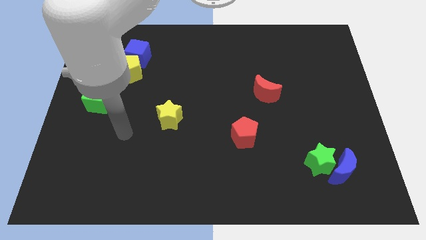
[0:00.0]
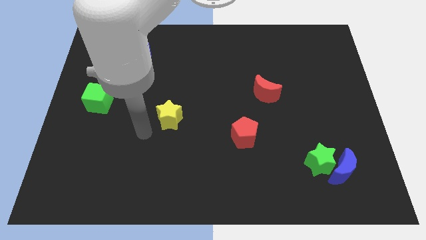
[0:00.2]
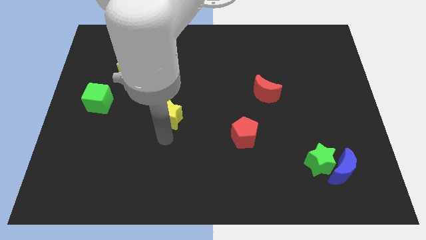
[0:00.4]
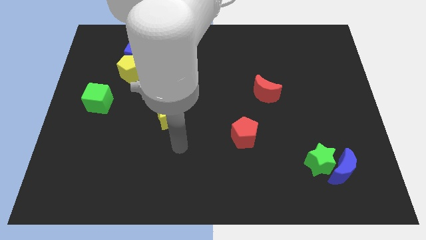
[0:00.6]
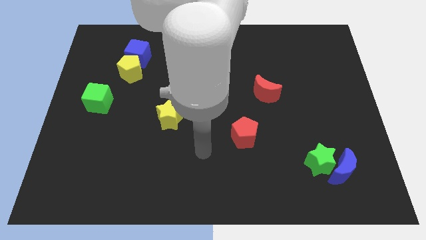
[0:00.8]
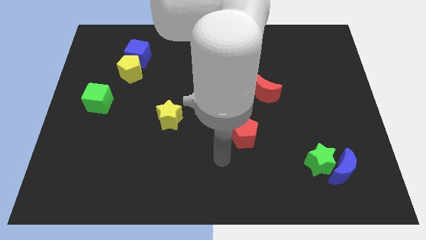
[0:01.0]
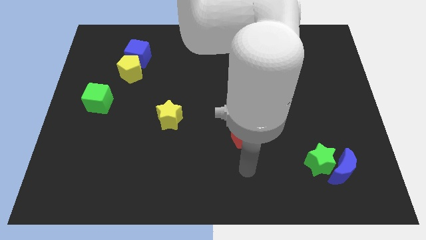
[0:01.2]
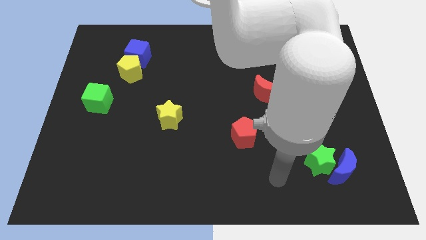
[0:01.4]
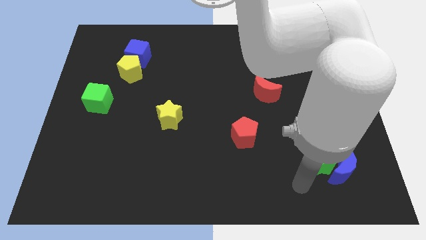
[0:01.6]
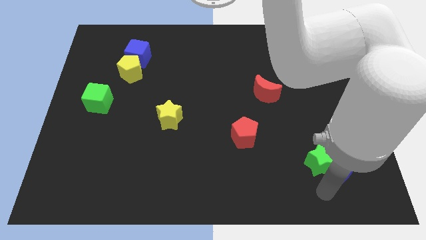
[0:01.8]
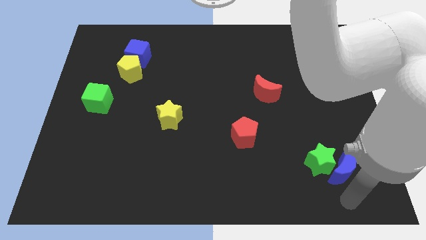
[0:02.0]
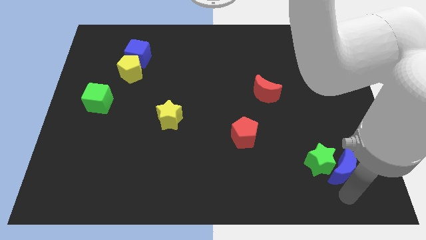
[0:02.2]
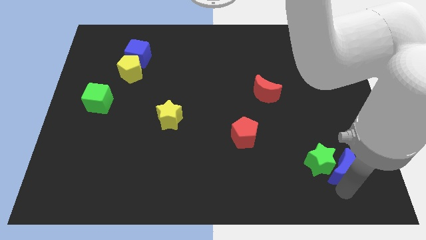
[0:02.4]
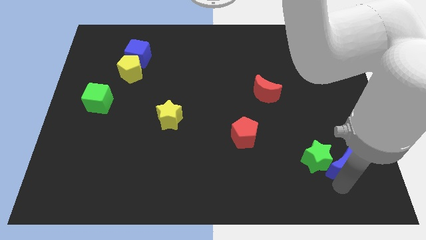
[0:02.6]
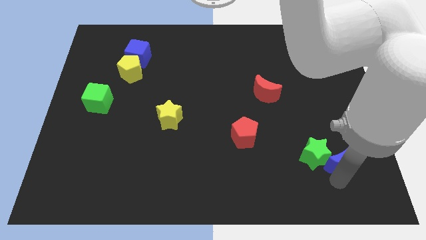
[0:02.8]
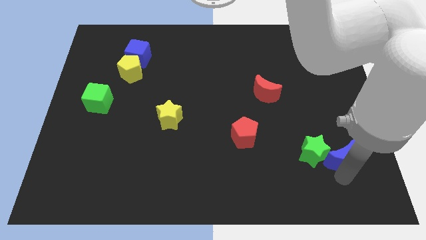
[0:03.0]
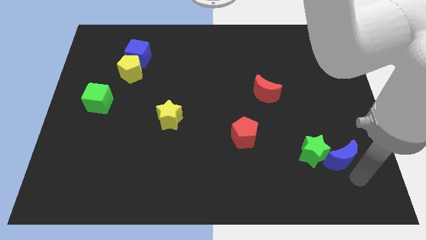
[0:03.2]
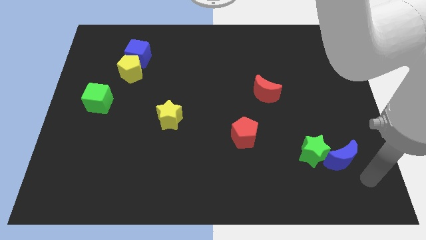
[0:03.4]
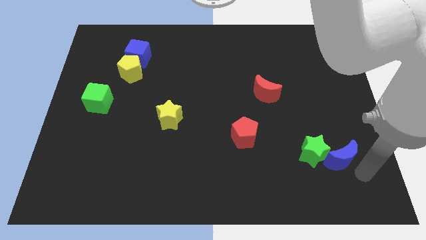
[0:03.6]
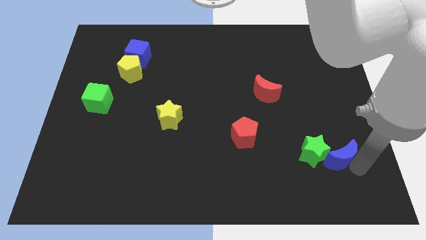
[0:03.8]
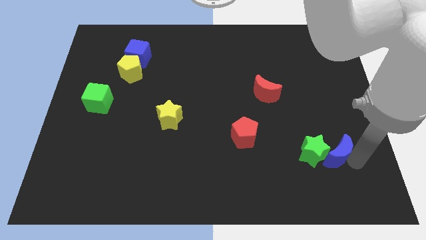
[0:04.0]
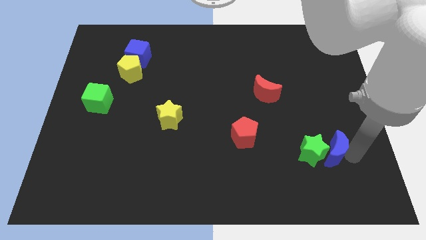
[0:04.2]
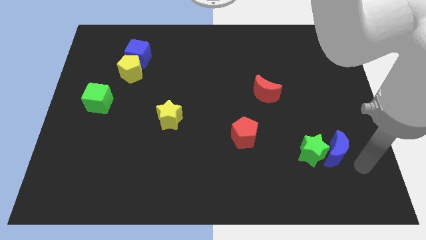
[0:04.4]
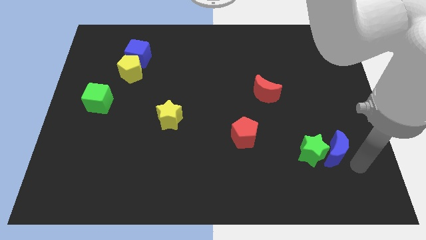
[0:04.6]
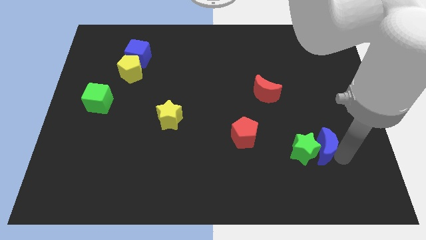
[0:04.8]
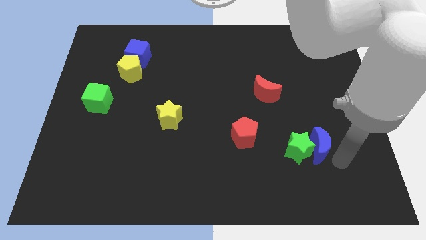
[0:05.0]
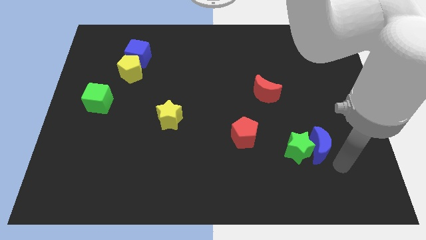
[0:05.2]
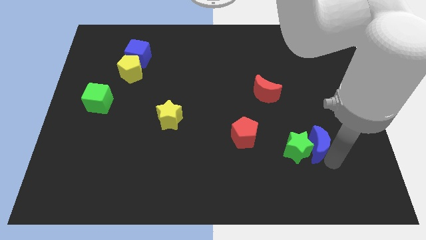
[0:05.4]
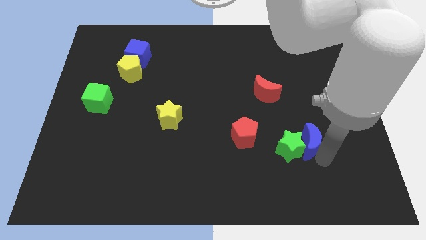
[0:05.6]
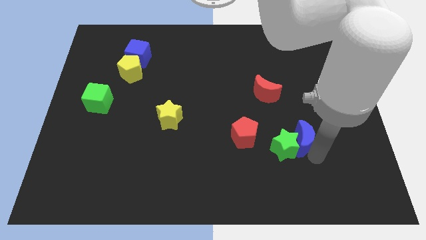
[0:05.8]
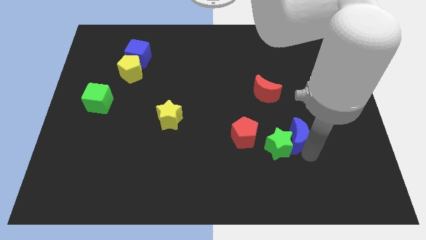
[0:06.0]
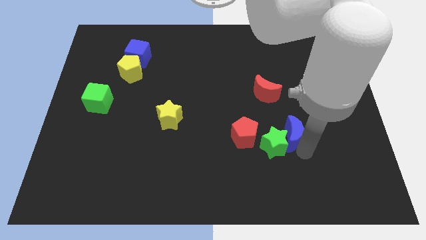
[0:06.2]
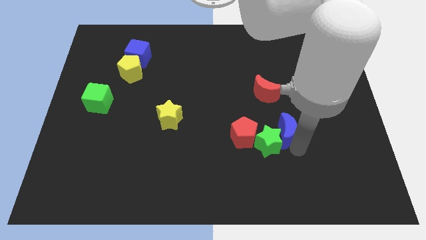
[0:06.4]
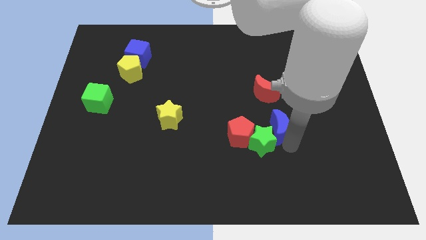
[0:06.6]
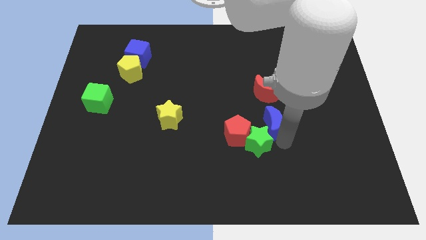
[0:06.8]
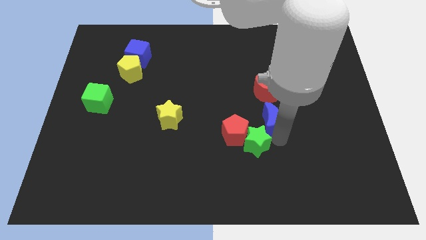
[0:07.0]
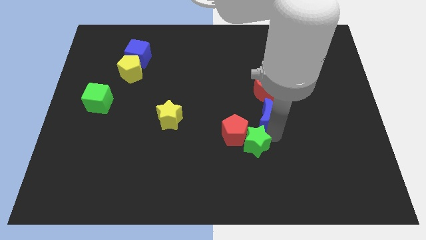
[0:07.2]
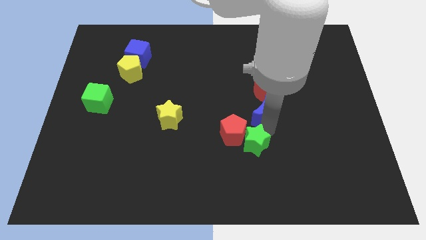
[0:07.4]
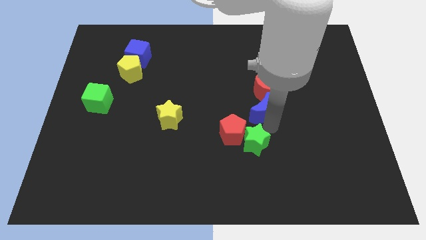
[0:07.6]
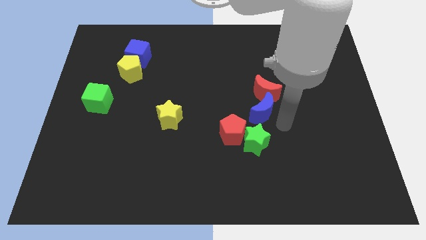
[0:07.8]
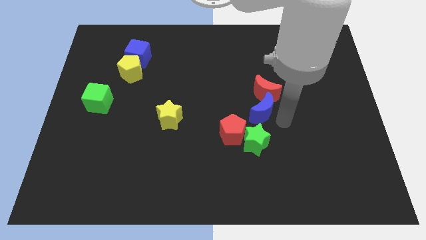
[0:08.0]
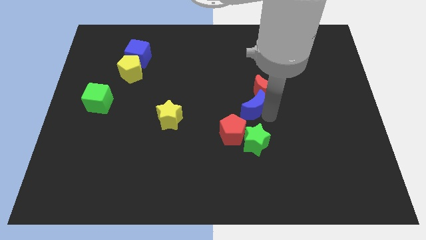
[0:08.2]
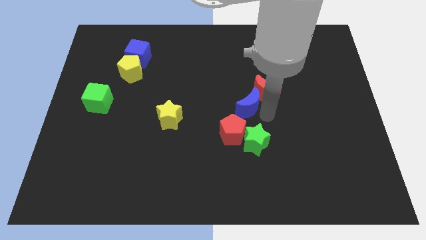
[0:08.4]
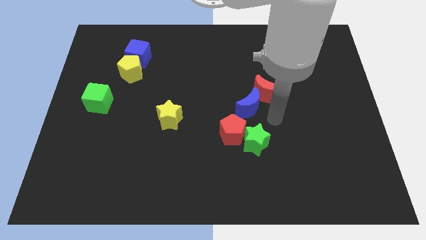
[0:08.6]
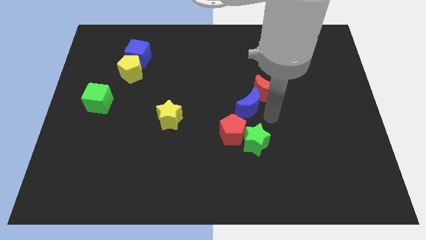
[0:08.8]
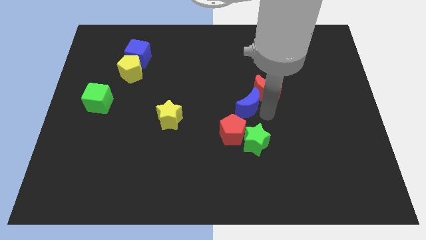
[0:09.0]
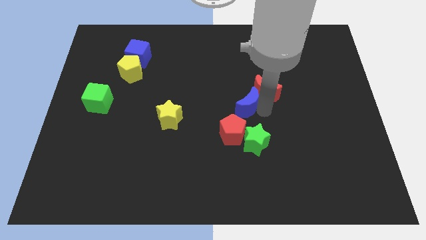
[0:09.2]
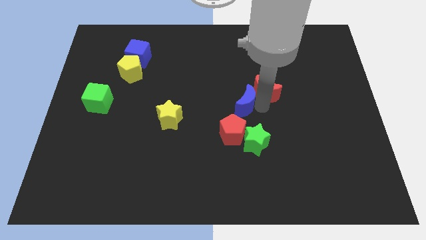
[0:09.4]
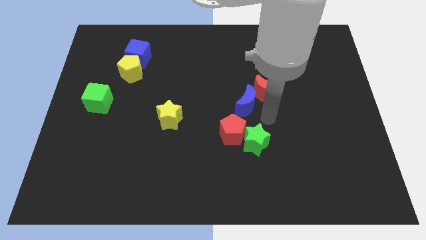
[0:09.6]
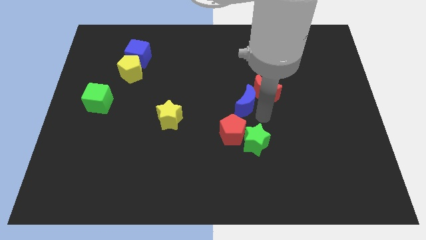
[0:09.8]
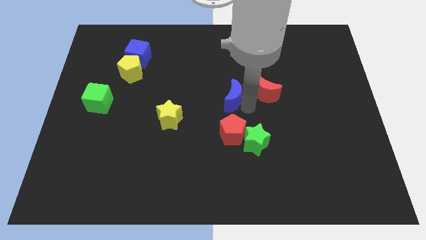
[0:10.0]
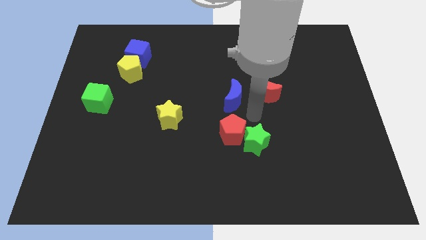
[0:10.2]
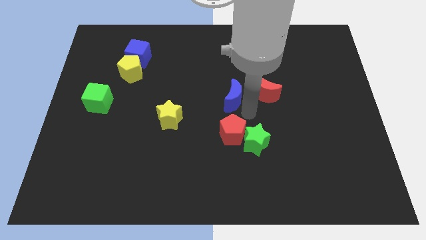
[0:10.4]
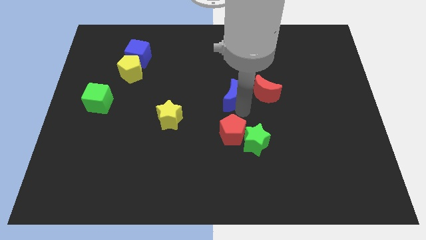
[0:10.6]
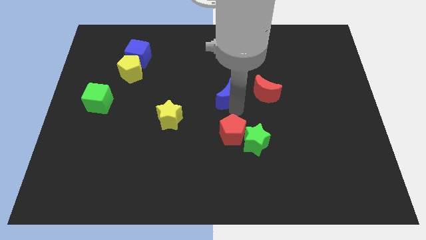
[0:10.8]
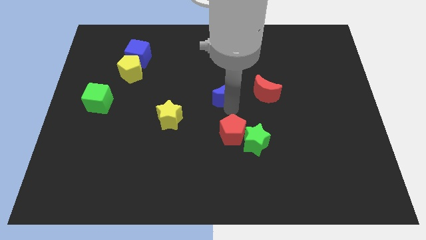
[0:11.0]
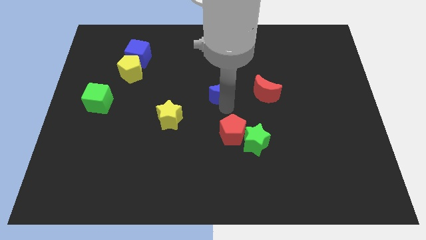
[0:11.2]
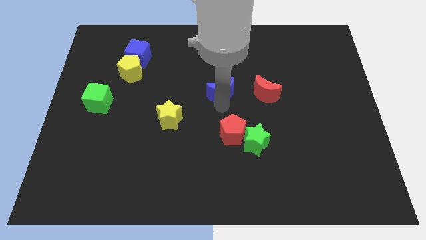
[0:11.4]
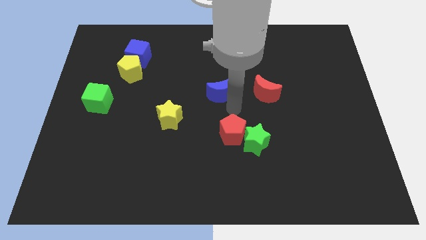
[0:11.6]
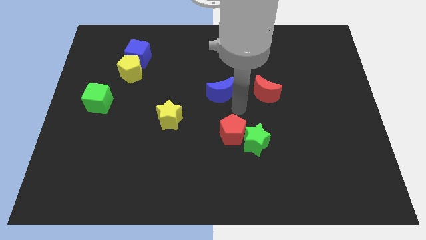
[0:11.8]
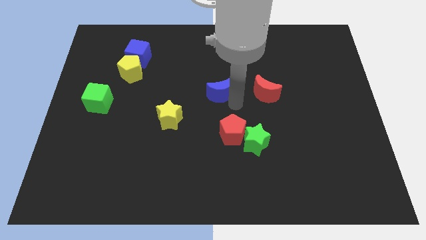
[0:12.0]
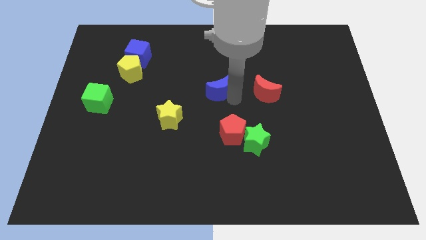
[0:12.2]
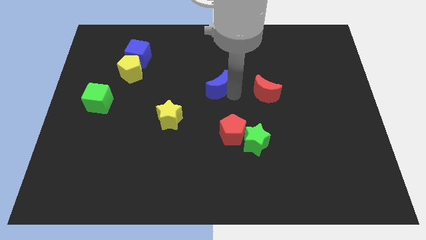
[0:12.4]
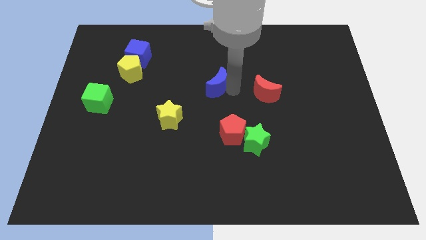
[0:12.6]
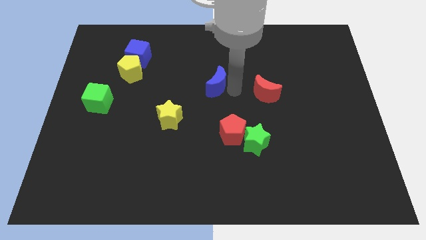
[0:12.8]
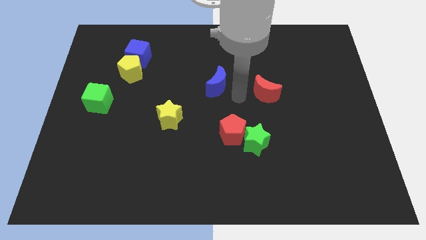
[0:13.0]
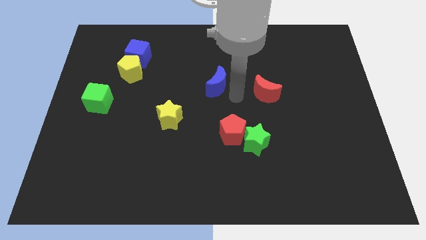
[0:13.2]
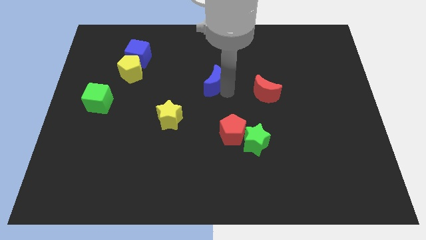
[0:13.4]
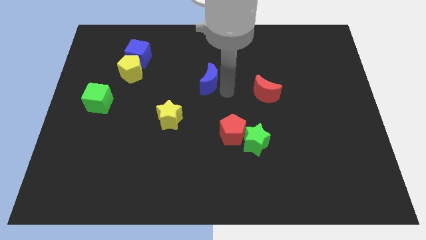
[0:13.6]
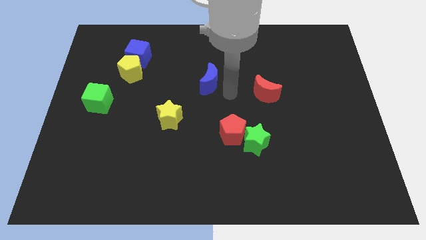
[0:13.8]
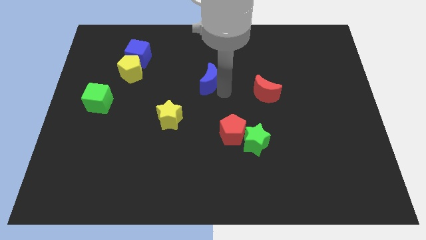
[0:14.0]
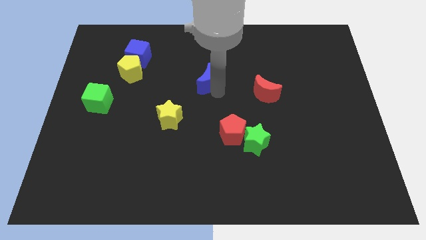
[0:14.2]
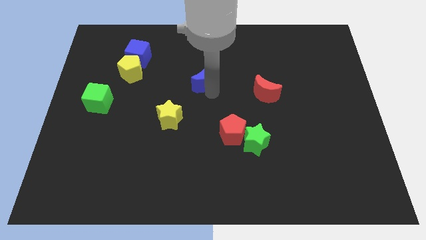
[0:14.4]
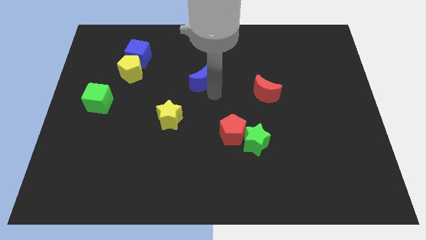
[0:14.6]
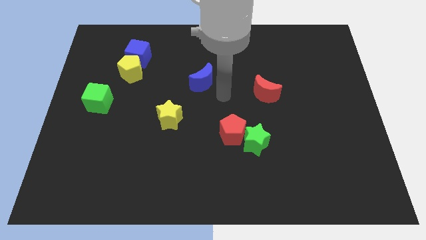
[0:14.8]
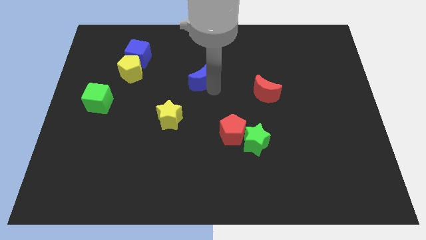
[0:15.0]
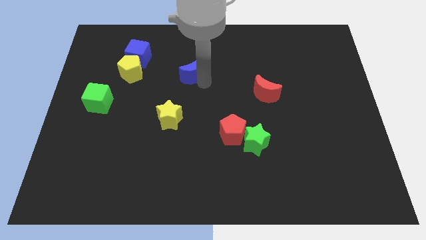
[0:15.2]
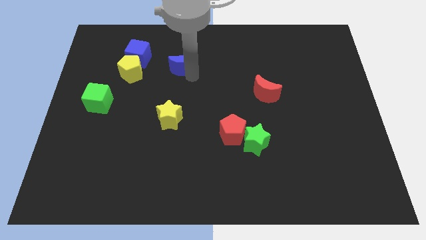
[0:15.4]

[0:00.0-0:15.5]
move the blue moon to the right of the blue cube
